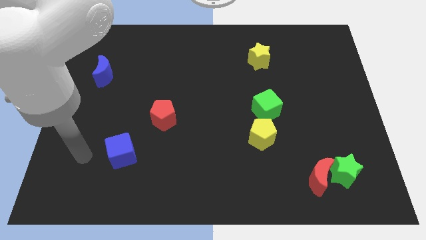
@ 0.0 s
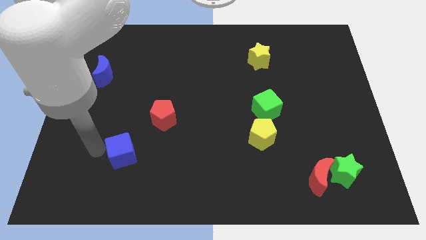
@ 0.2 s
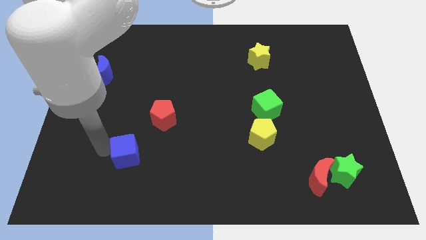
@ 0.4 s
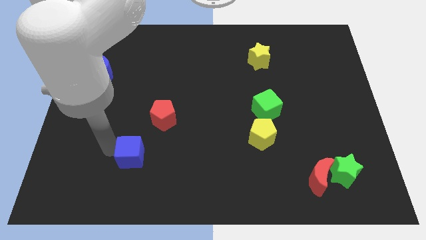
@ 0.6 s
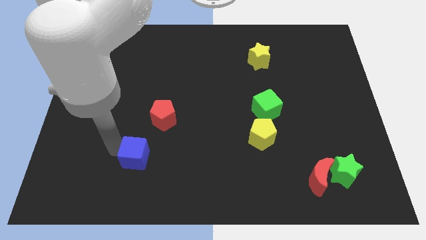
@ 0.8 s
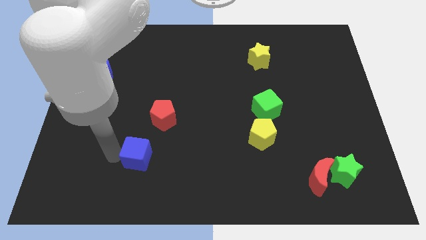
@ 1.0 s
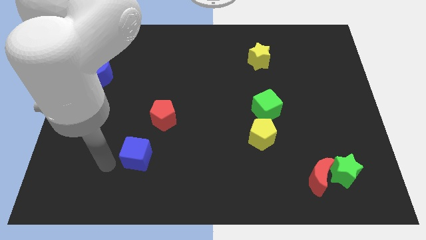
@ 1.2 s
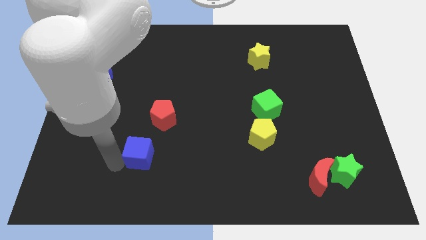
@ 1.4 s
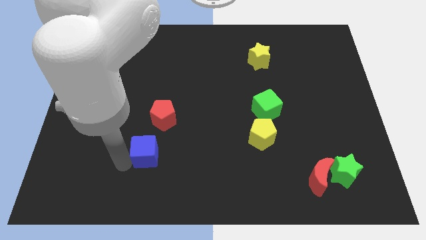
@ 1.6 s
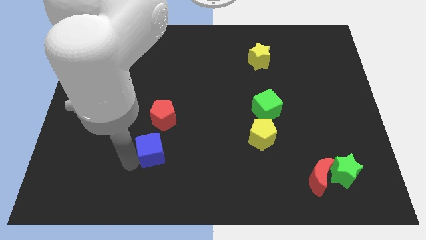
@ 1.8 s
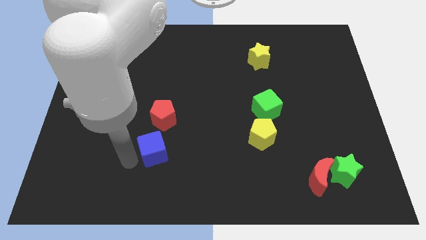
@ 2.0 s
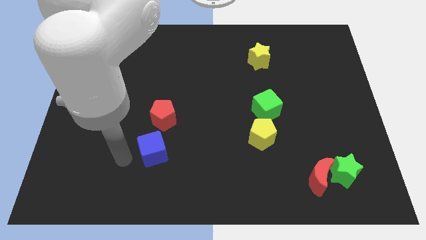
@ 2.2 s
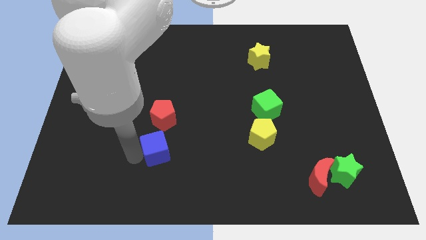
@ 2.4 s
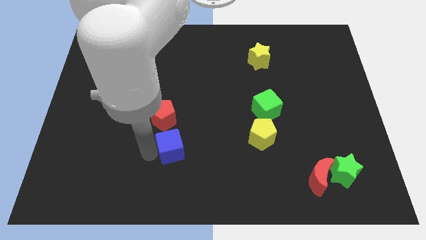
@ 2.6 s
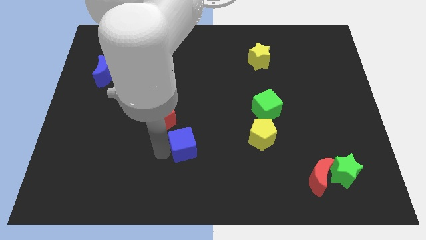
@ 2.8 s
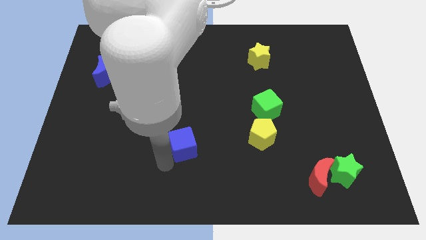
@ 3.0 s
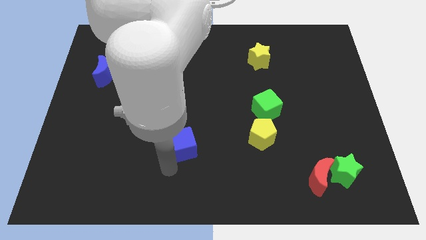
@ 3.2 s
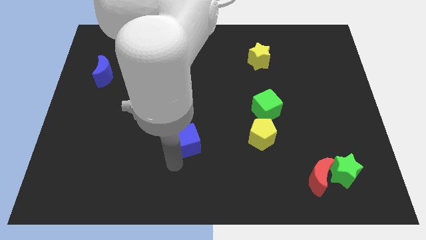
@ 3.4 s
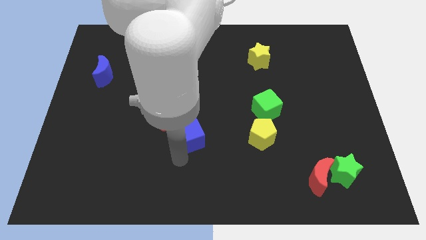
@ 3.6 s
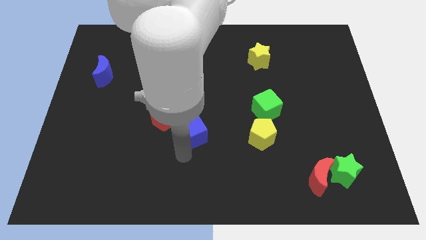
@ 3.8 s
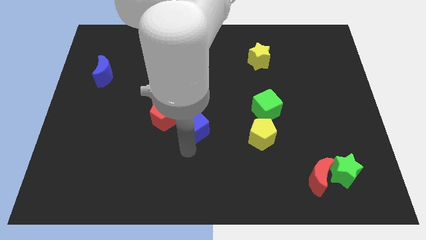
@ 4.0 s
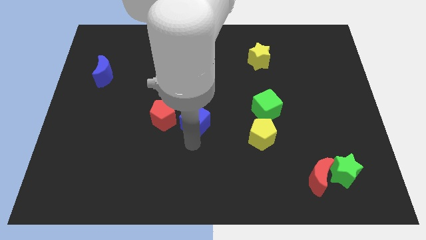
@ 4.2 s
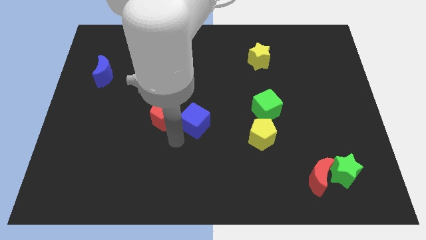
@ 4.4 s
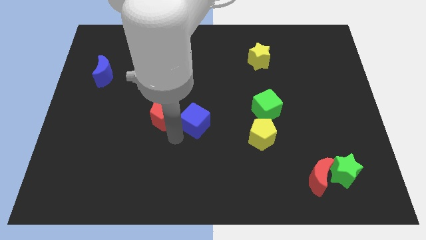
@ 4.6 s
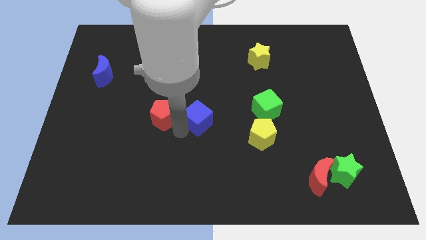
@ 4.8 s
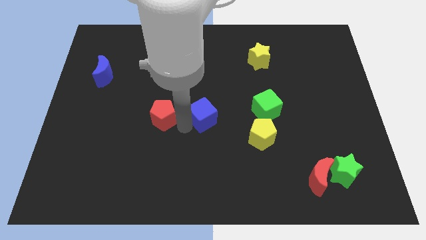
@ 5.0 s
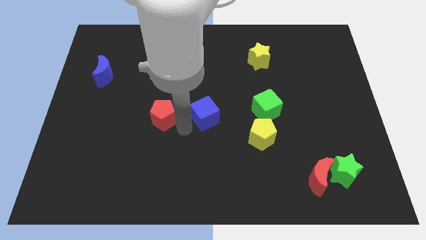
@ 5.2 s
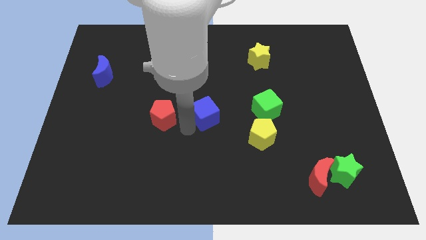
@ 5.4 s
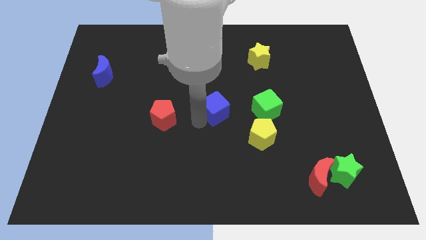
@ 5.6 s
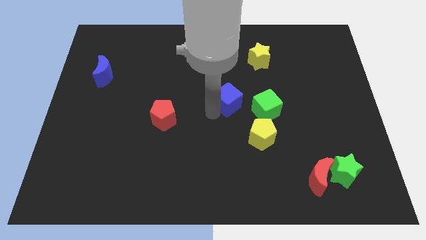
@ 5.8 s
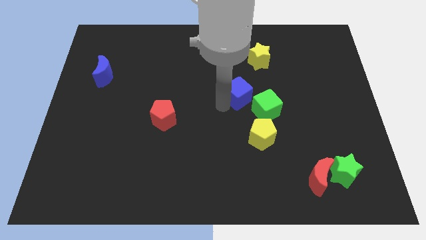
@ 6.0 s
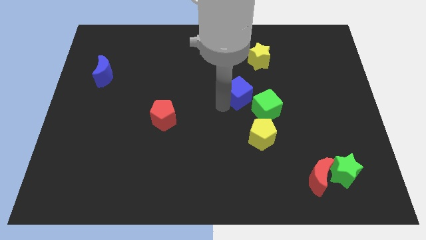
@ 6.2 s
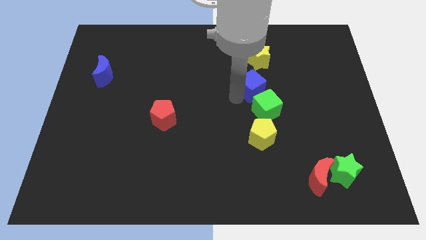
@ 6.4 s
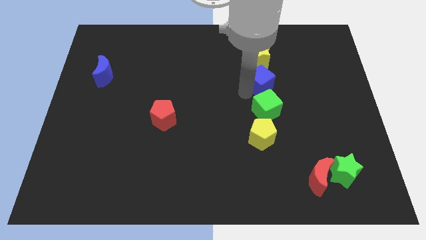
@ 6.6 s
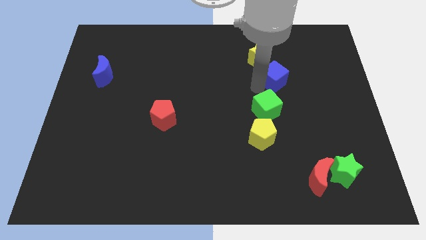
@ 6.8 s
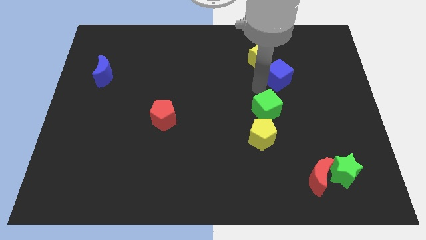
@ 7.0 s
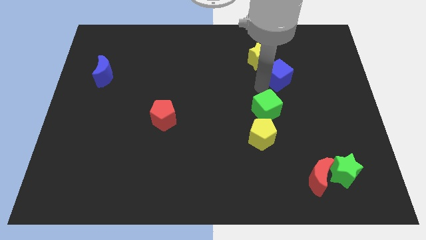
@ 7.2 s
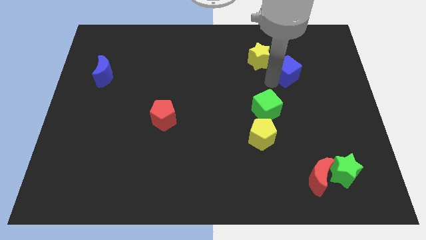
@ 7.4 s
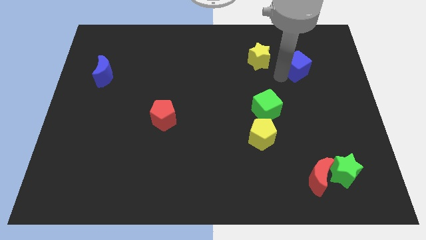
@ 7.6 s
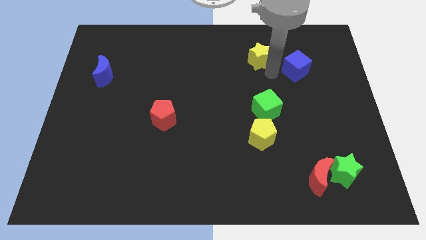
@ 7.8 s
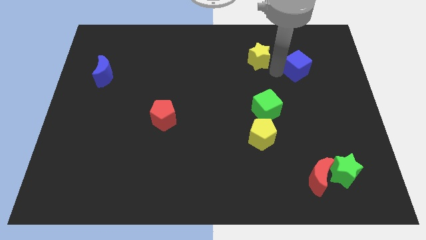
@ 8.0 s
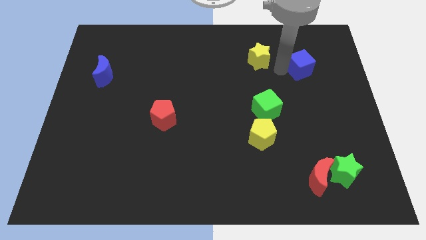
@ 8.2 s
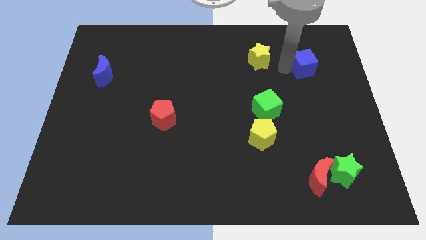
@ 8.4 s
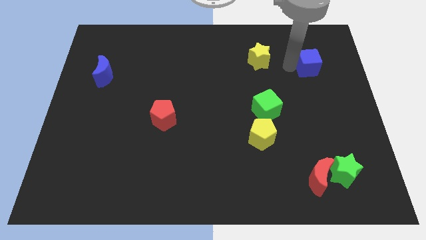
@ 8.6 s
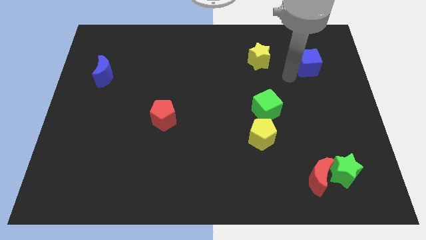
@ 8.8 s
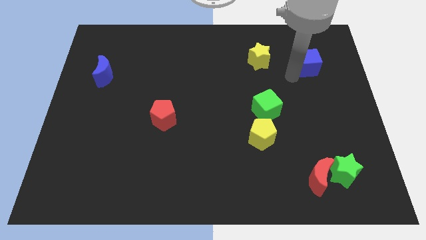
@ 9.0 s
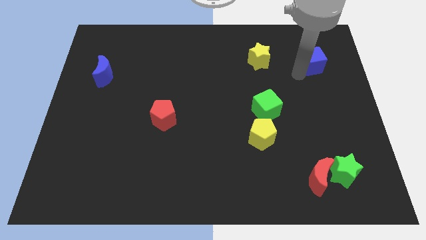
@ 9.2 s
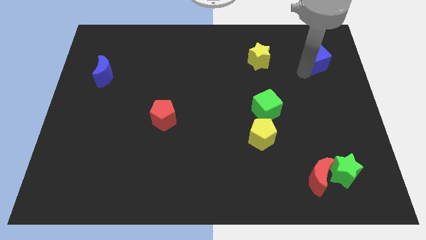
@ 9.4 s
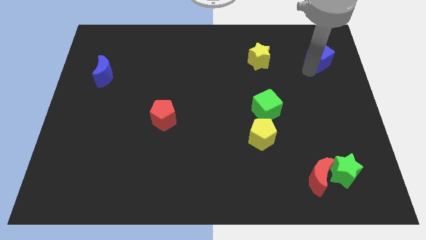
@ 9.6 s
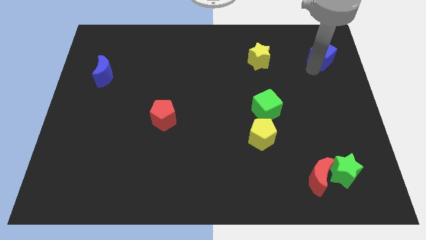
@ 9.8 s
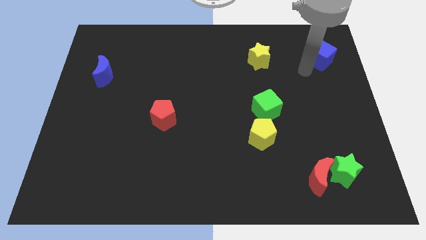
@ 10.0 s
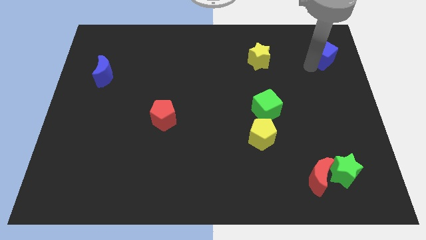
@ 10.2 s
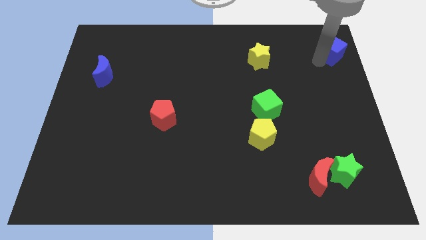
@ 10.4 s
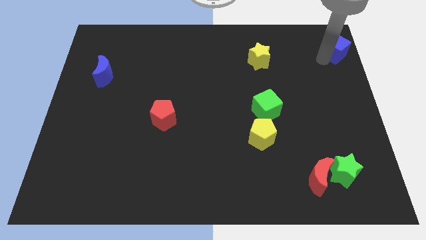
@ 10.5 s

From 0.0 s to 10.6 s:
move the blue cube to the top right corner

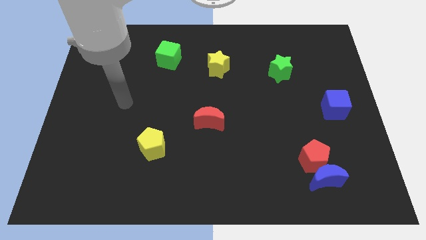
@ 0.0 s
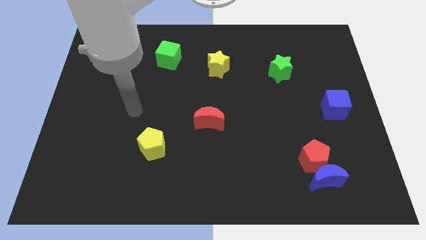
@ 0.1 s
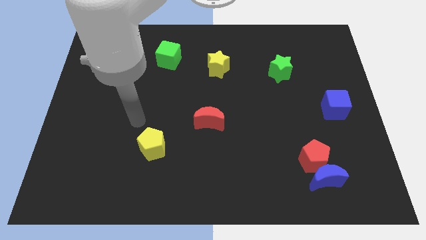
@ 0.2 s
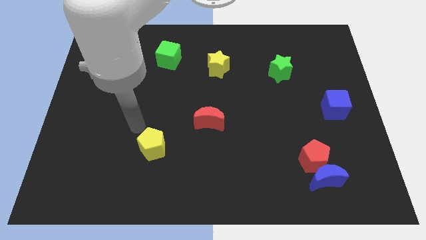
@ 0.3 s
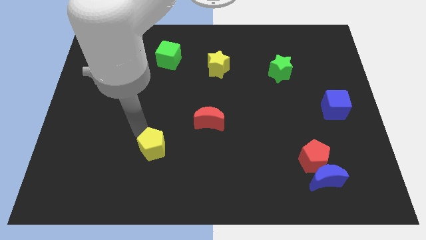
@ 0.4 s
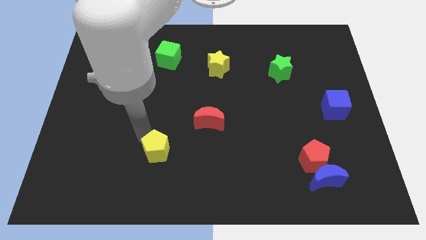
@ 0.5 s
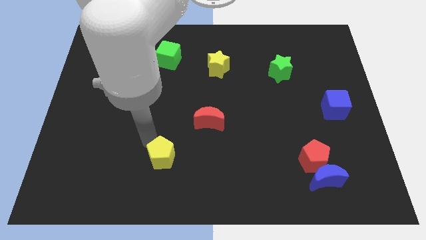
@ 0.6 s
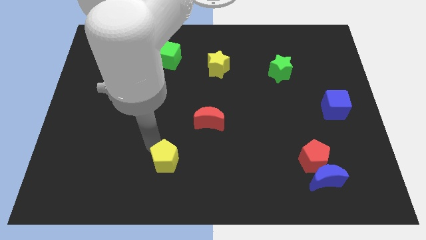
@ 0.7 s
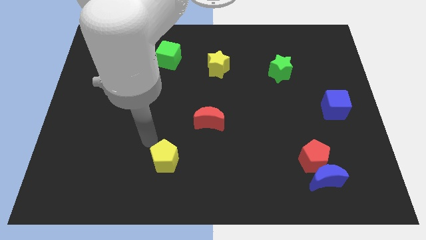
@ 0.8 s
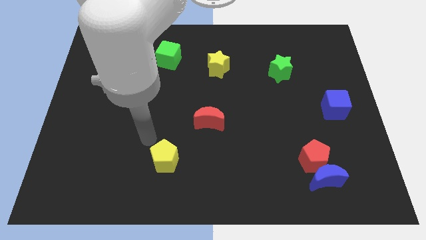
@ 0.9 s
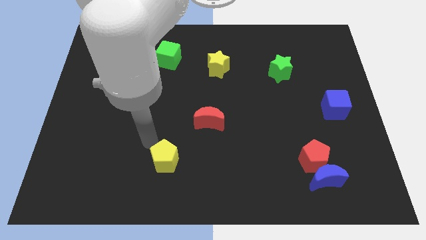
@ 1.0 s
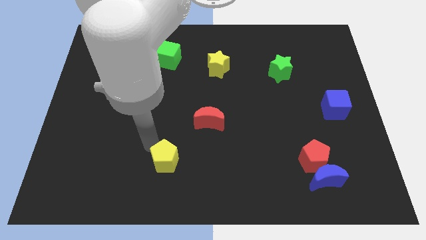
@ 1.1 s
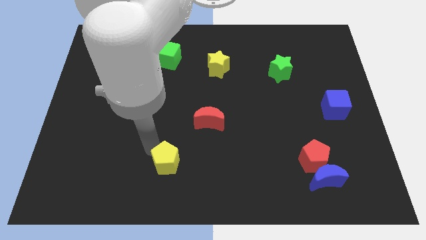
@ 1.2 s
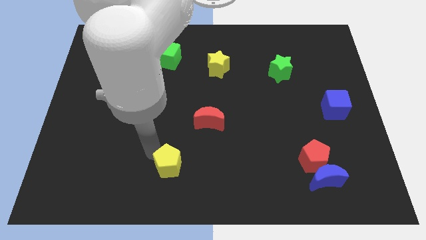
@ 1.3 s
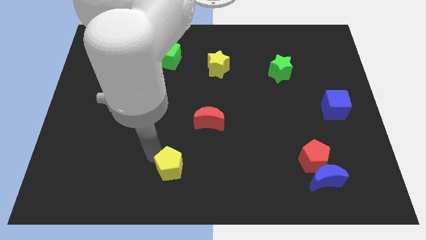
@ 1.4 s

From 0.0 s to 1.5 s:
move the yellow pentagon to the bottom side
